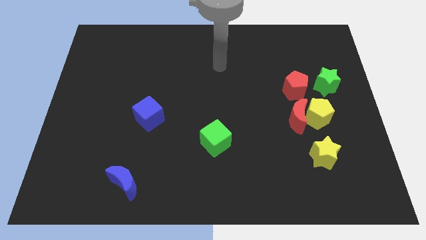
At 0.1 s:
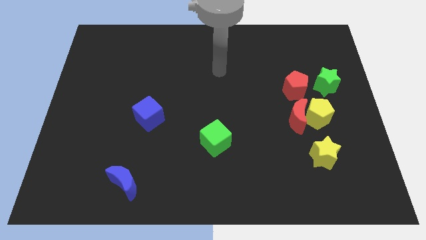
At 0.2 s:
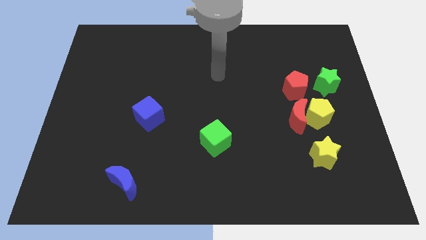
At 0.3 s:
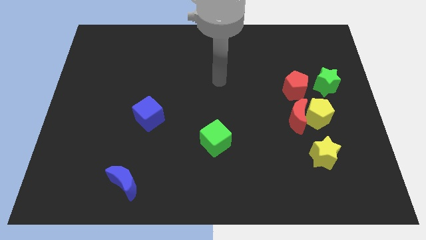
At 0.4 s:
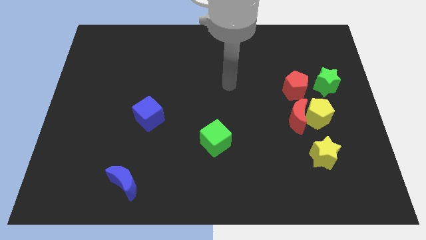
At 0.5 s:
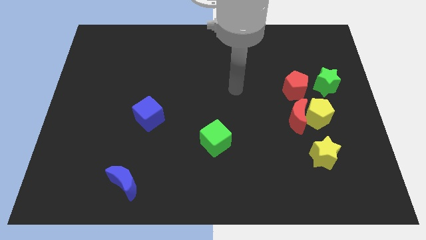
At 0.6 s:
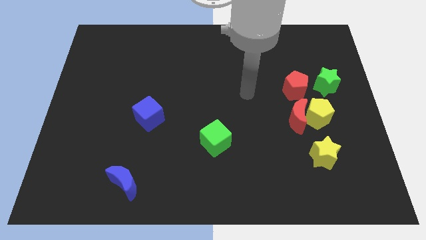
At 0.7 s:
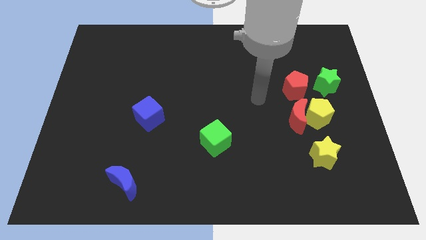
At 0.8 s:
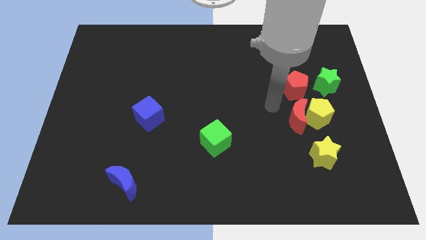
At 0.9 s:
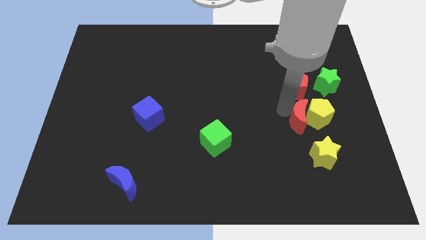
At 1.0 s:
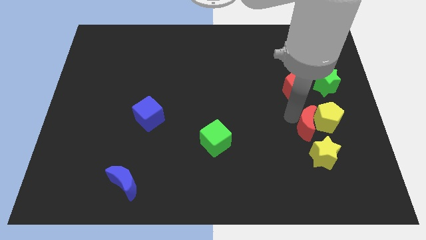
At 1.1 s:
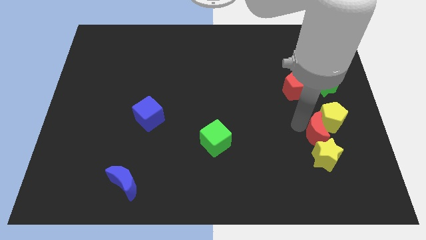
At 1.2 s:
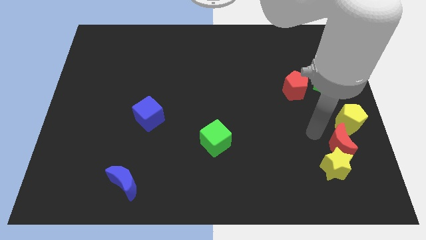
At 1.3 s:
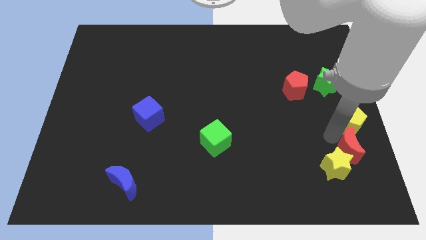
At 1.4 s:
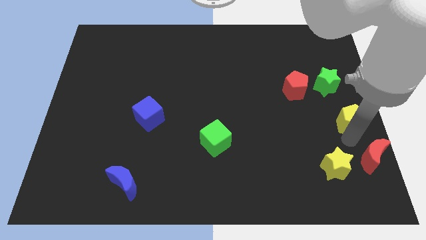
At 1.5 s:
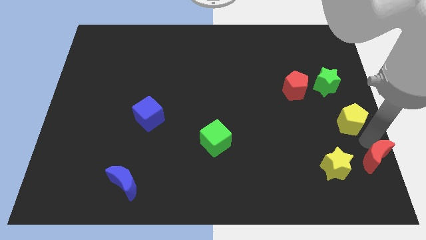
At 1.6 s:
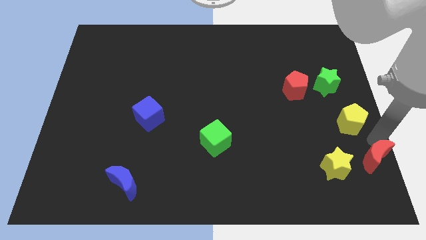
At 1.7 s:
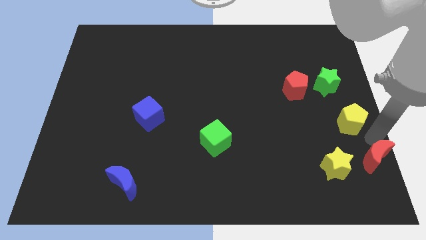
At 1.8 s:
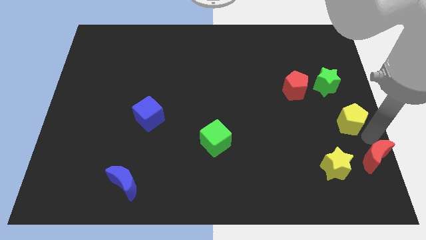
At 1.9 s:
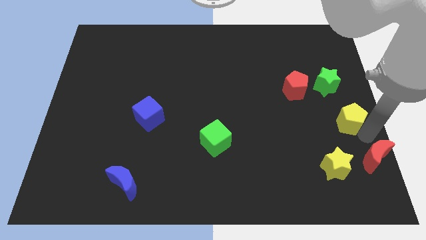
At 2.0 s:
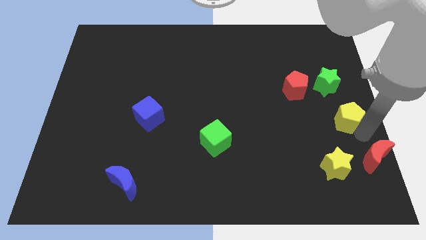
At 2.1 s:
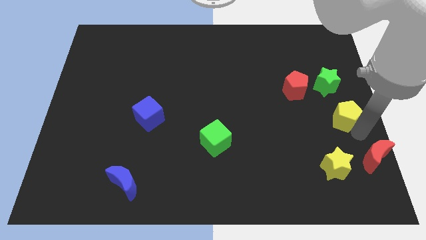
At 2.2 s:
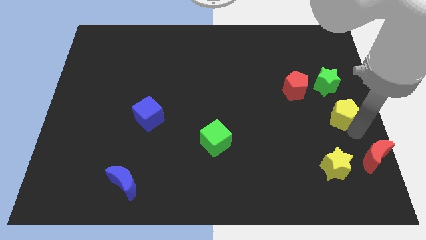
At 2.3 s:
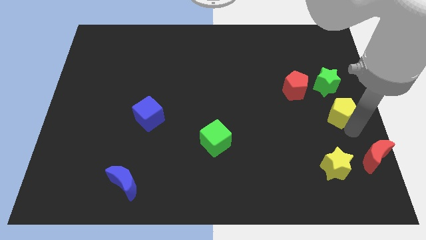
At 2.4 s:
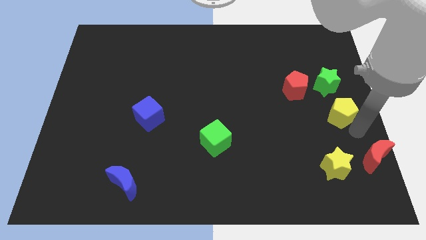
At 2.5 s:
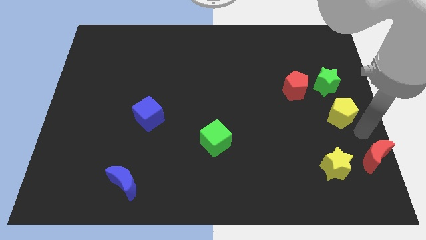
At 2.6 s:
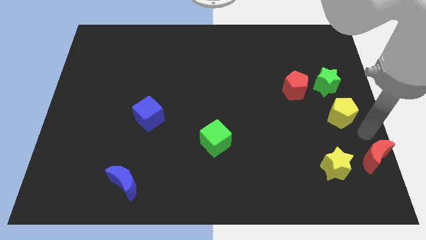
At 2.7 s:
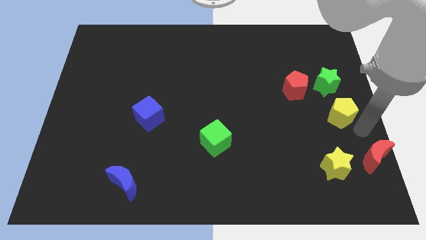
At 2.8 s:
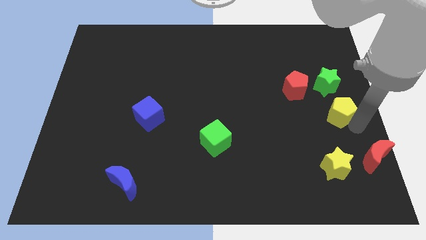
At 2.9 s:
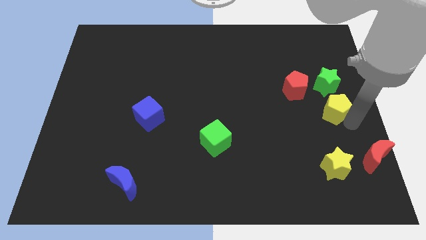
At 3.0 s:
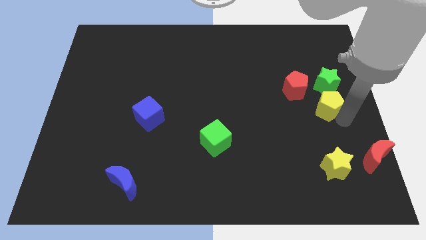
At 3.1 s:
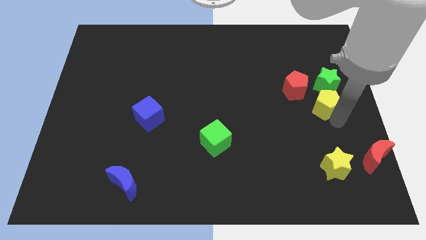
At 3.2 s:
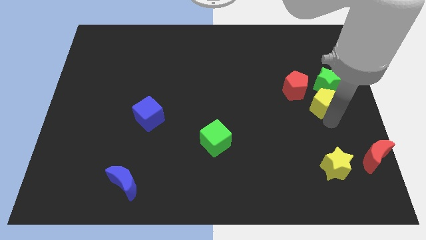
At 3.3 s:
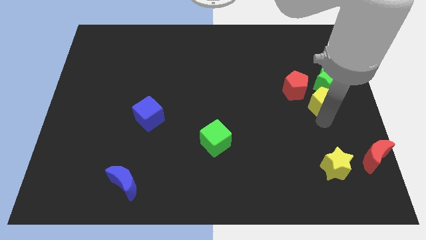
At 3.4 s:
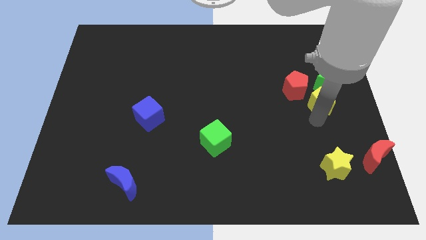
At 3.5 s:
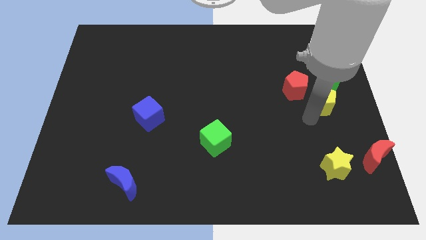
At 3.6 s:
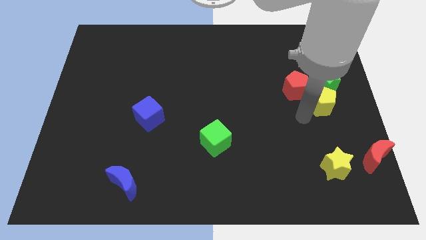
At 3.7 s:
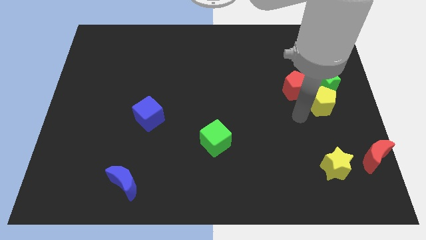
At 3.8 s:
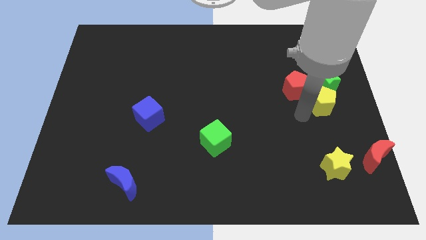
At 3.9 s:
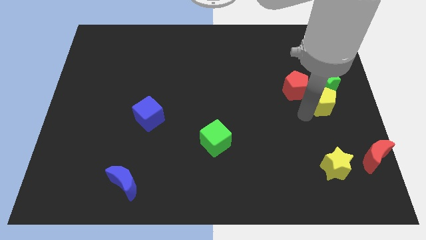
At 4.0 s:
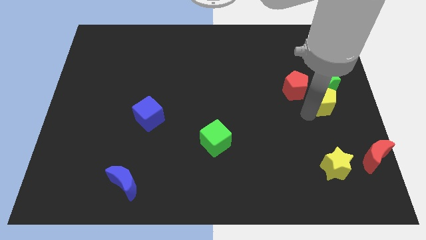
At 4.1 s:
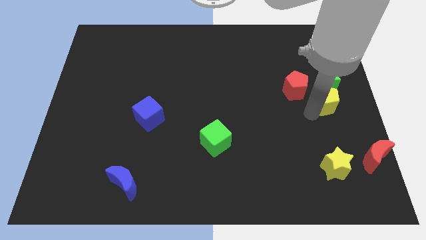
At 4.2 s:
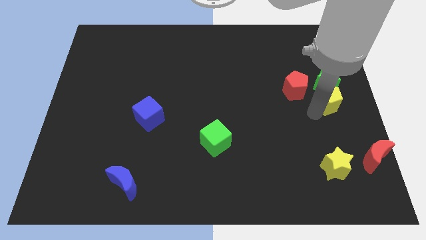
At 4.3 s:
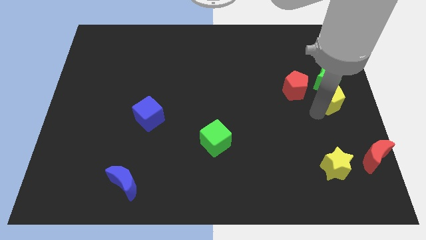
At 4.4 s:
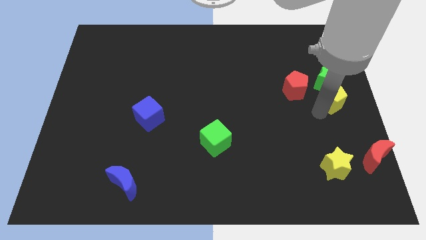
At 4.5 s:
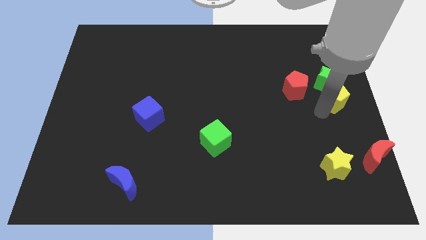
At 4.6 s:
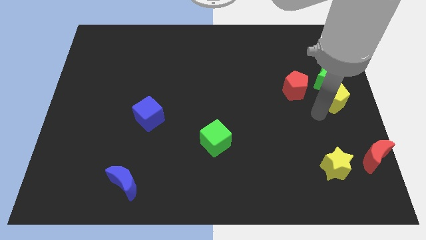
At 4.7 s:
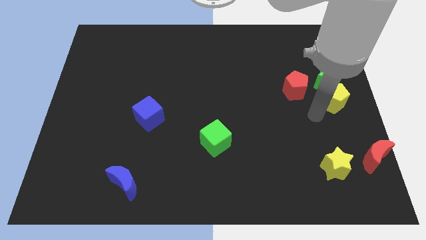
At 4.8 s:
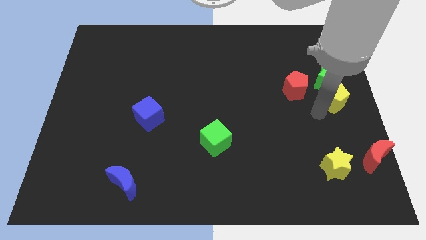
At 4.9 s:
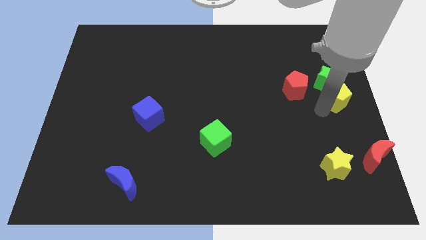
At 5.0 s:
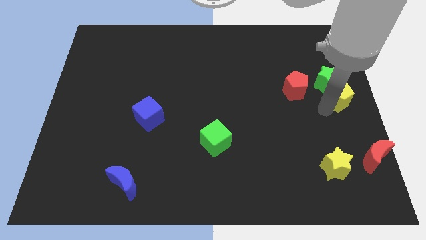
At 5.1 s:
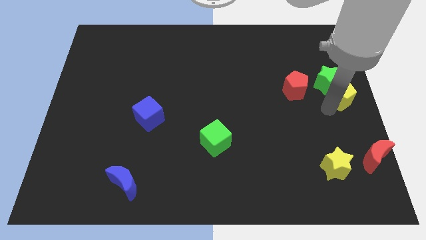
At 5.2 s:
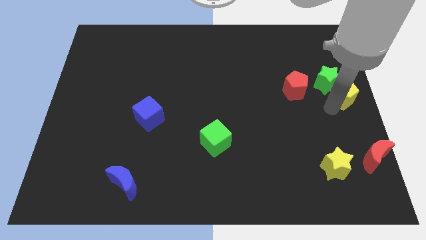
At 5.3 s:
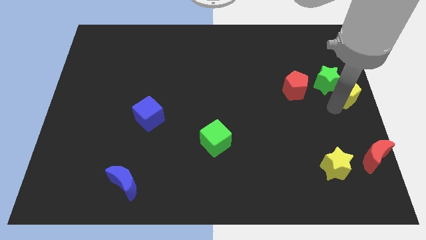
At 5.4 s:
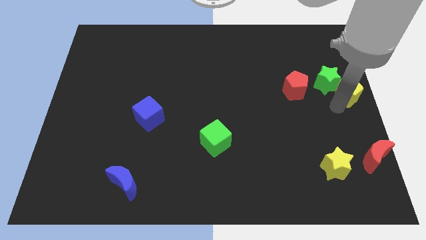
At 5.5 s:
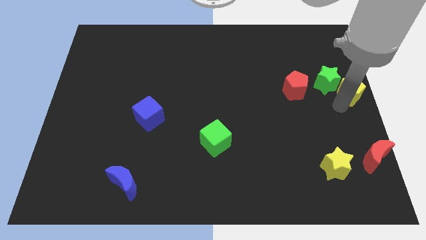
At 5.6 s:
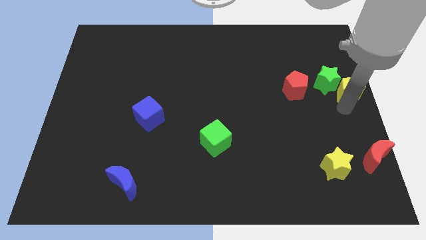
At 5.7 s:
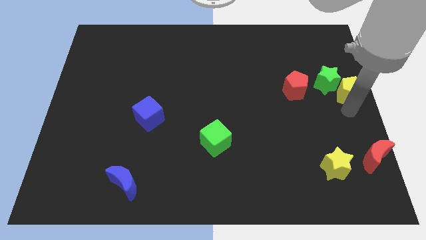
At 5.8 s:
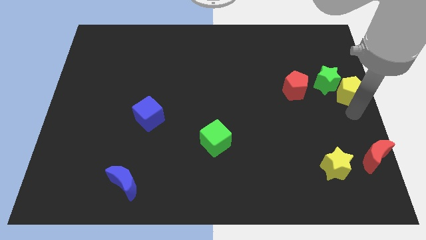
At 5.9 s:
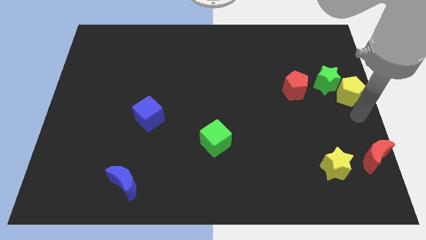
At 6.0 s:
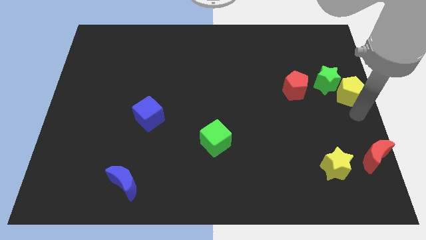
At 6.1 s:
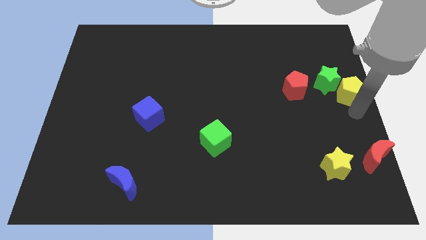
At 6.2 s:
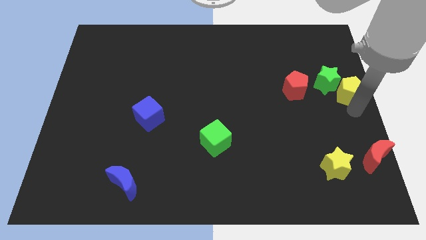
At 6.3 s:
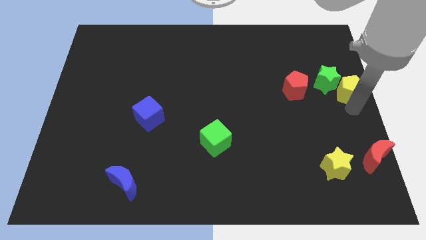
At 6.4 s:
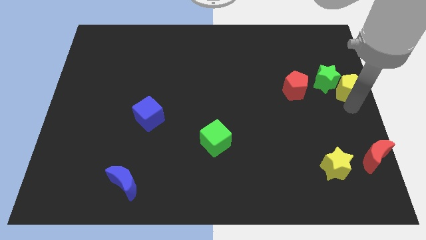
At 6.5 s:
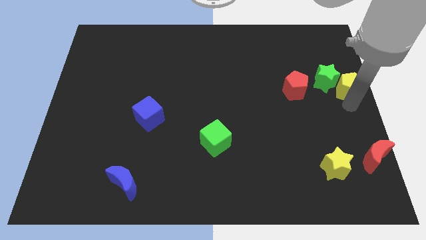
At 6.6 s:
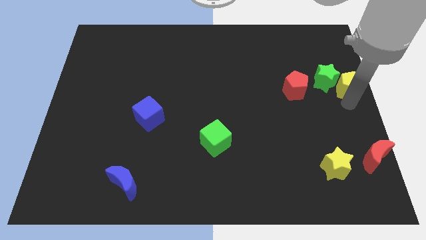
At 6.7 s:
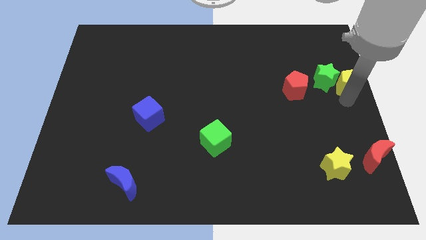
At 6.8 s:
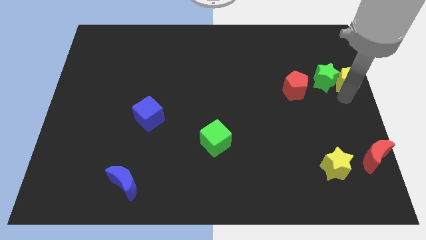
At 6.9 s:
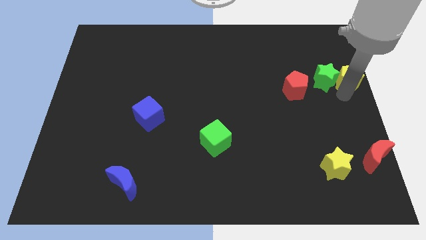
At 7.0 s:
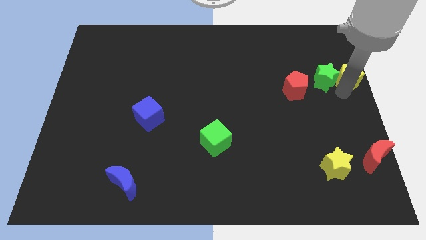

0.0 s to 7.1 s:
push the yellow pentagon a little upwards

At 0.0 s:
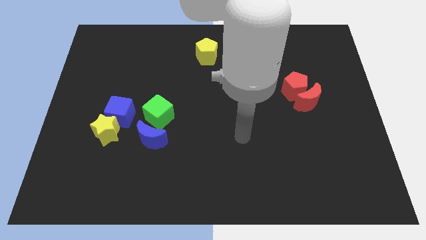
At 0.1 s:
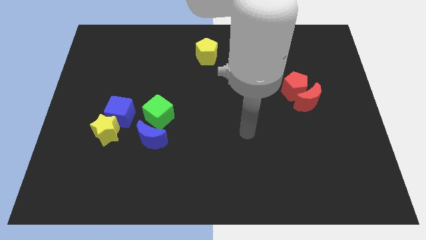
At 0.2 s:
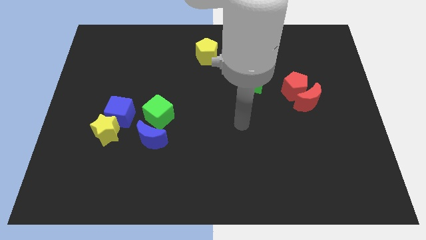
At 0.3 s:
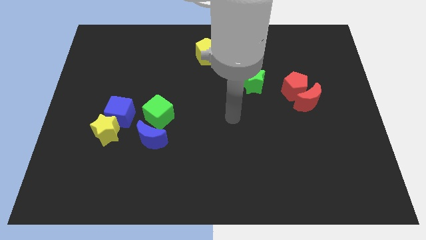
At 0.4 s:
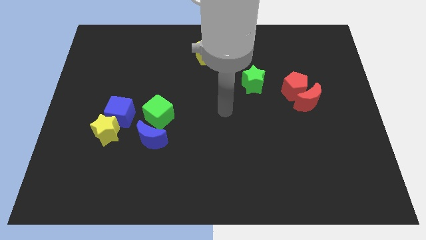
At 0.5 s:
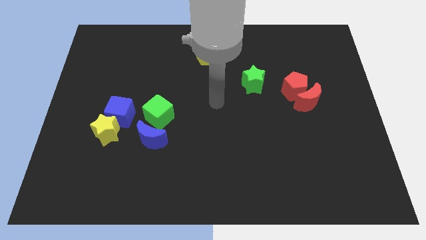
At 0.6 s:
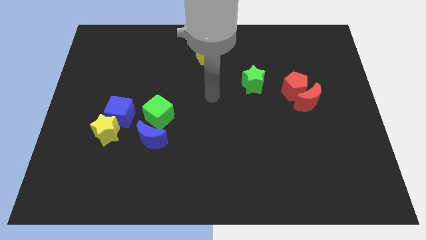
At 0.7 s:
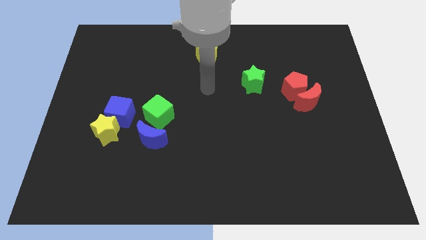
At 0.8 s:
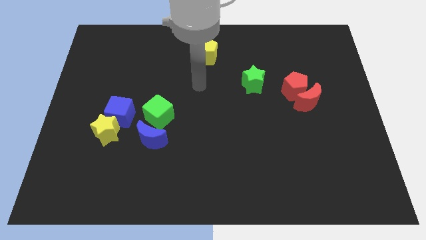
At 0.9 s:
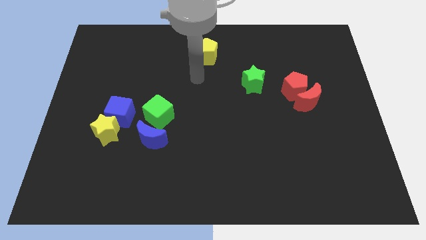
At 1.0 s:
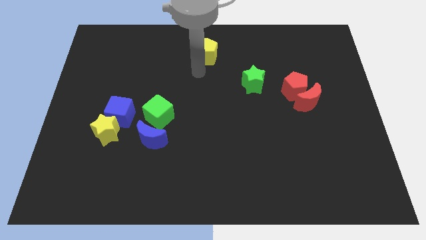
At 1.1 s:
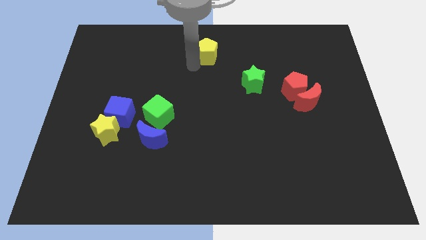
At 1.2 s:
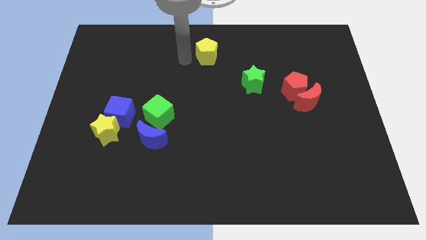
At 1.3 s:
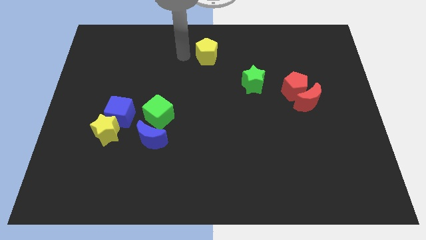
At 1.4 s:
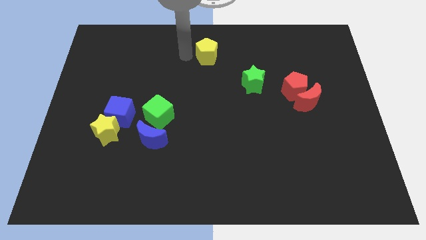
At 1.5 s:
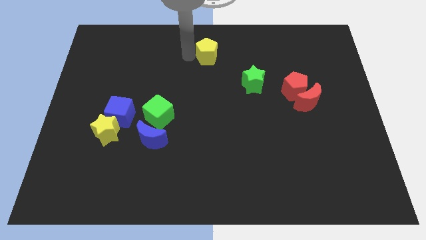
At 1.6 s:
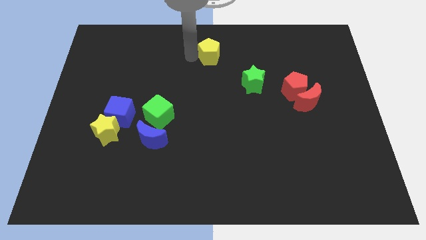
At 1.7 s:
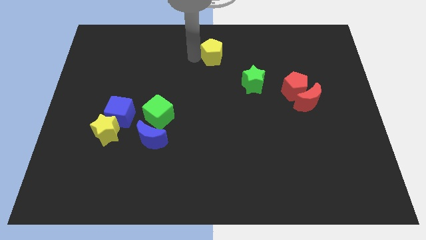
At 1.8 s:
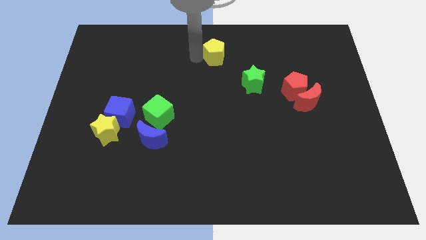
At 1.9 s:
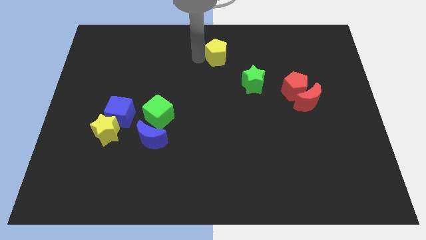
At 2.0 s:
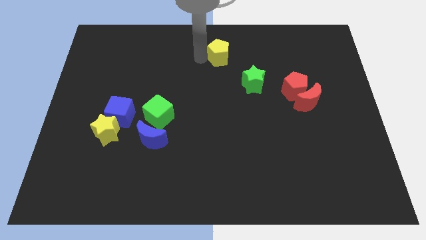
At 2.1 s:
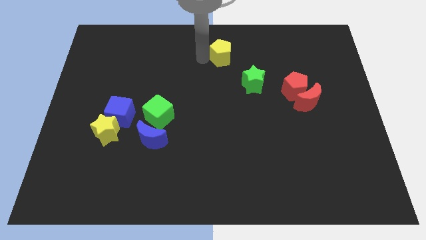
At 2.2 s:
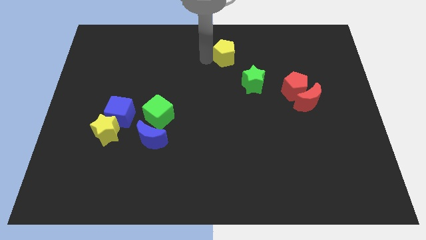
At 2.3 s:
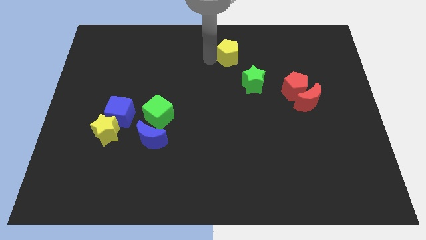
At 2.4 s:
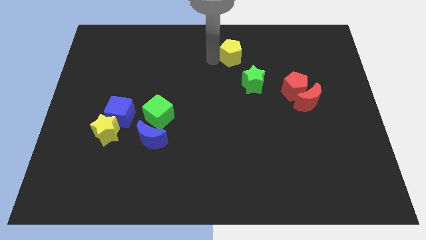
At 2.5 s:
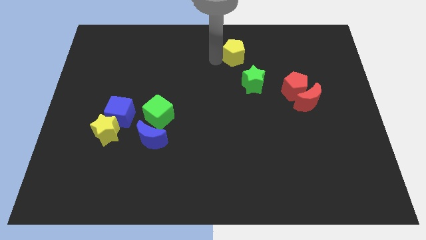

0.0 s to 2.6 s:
slide the yellow pentagon a little bit right
